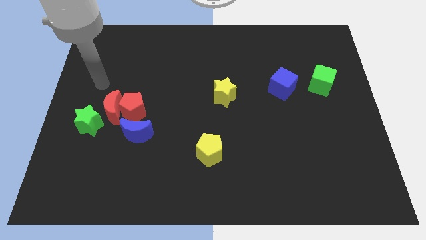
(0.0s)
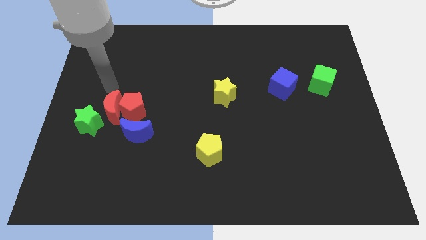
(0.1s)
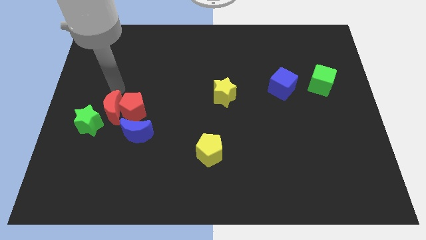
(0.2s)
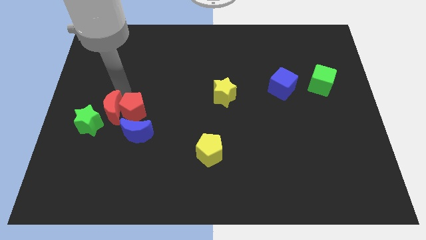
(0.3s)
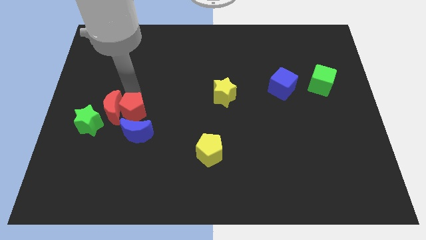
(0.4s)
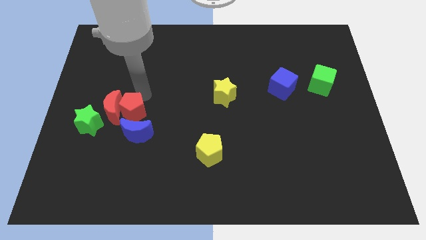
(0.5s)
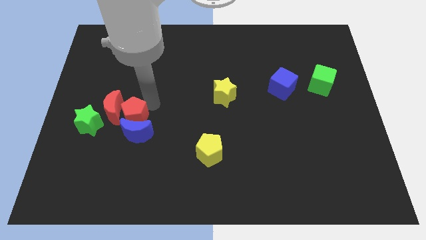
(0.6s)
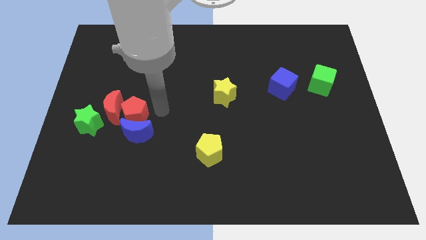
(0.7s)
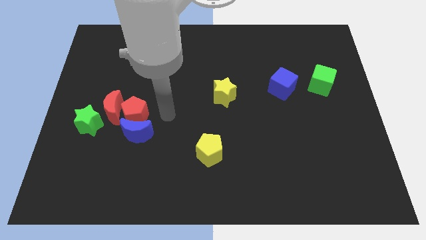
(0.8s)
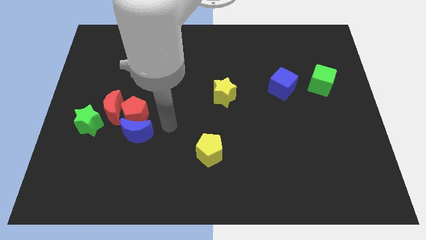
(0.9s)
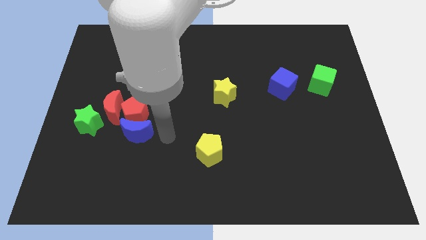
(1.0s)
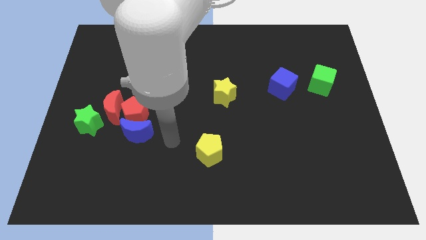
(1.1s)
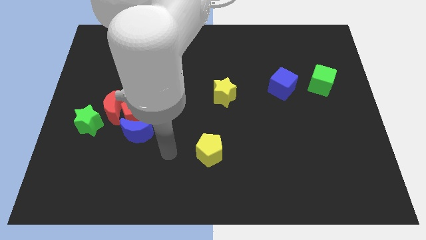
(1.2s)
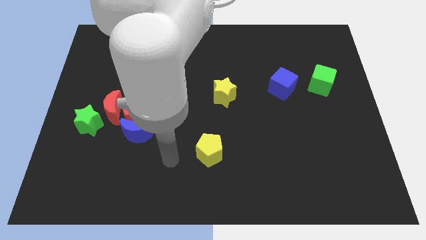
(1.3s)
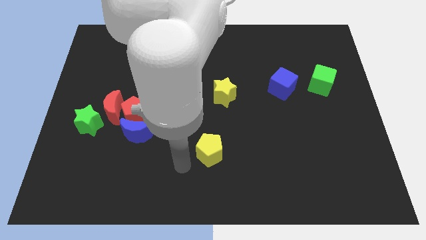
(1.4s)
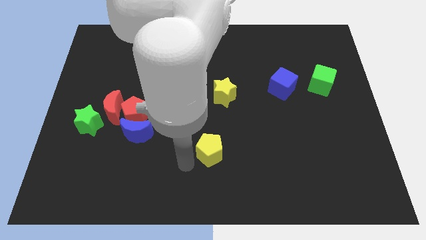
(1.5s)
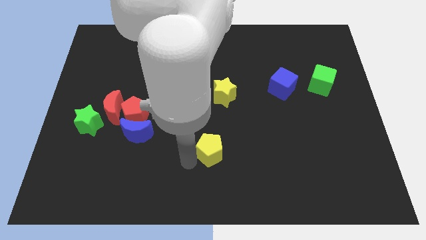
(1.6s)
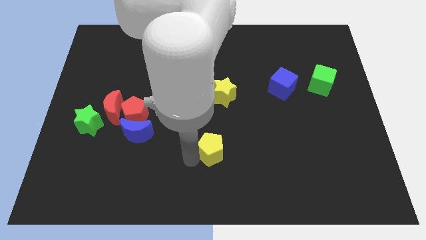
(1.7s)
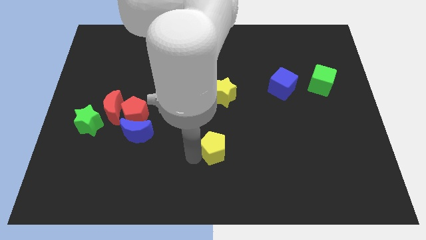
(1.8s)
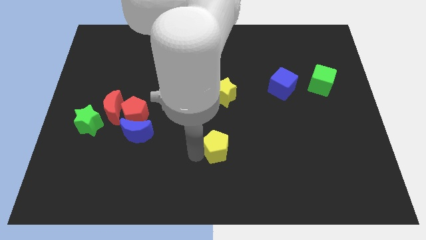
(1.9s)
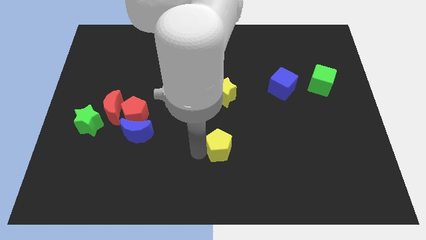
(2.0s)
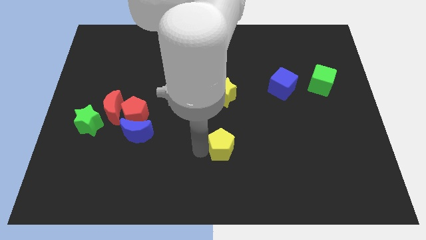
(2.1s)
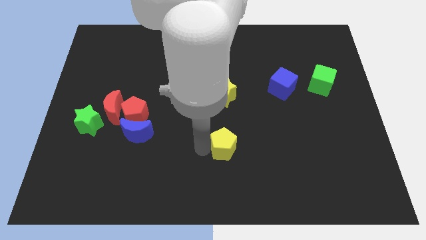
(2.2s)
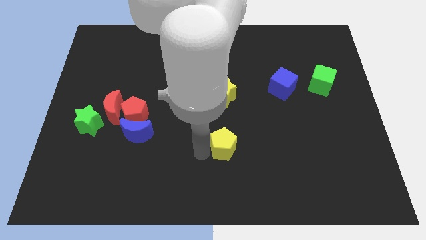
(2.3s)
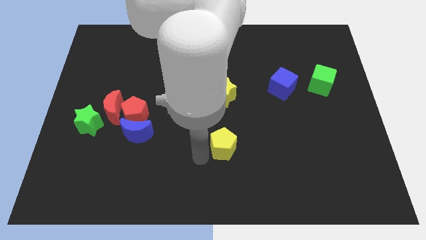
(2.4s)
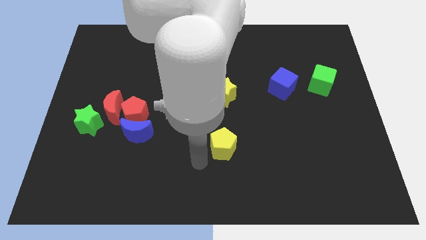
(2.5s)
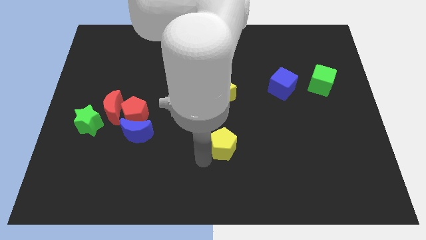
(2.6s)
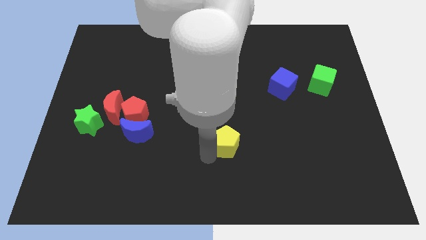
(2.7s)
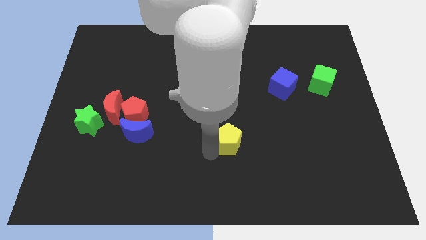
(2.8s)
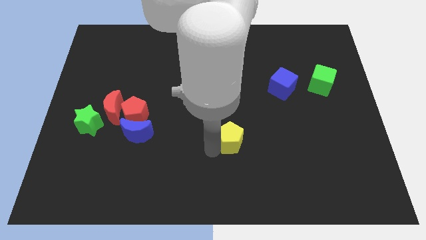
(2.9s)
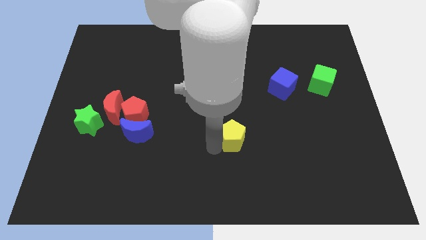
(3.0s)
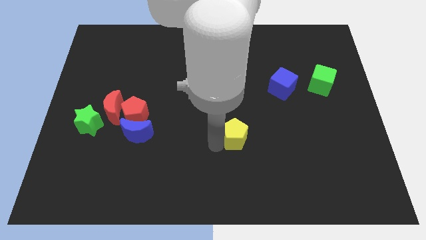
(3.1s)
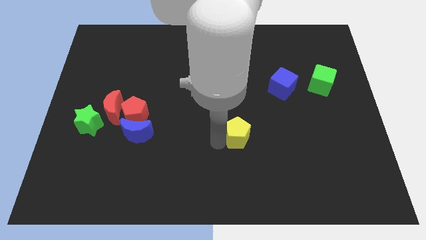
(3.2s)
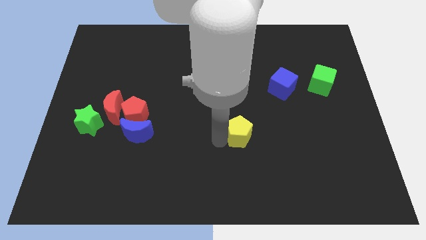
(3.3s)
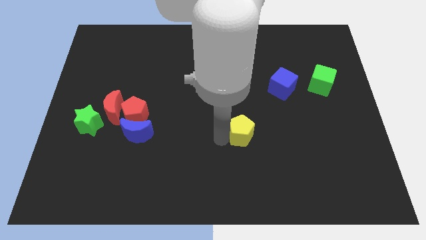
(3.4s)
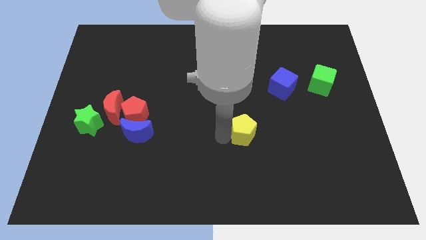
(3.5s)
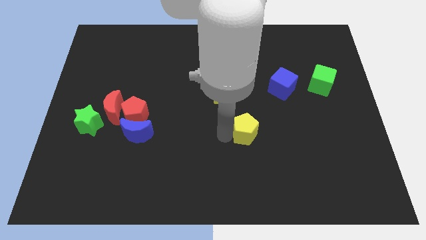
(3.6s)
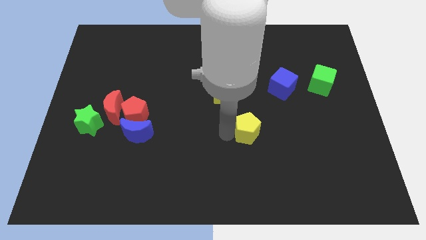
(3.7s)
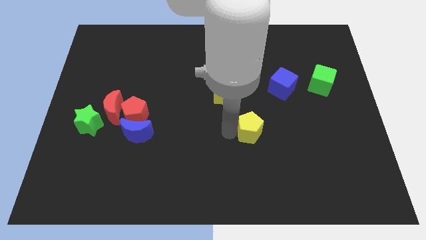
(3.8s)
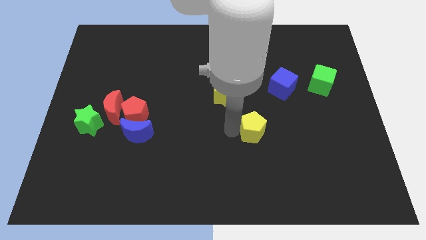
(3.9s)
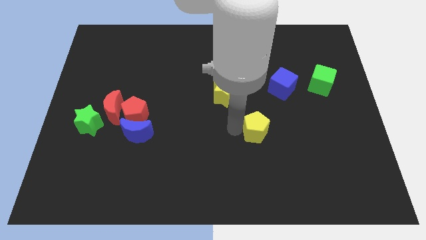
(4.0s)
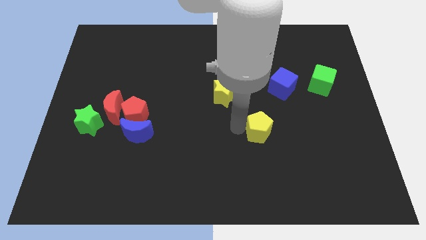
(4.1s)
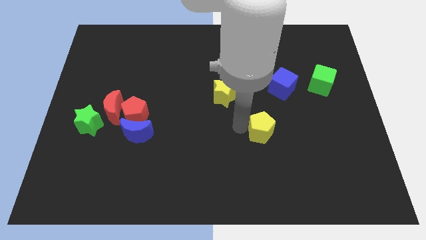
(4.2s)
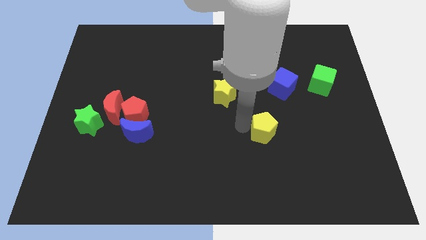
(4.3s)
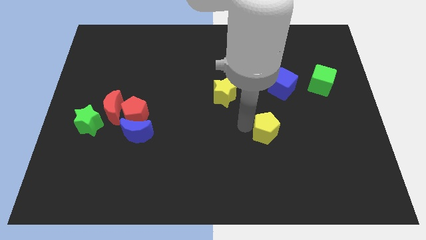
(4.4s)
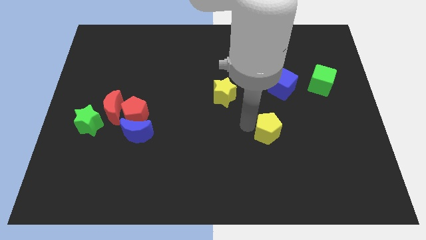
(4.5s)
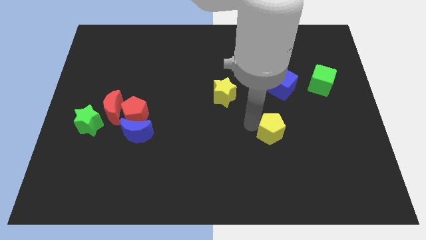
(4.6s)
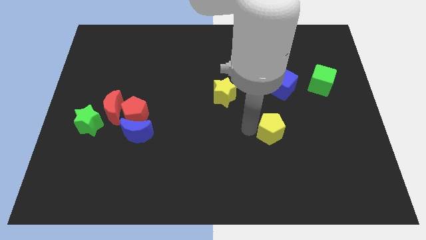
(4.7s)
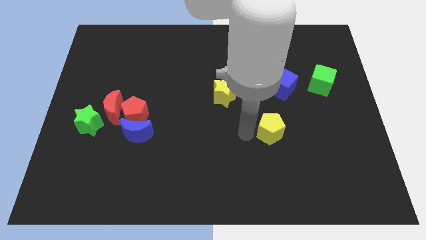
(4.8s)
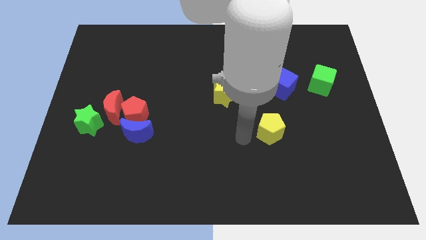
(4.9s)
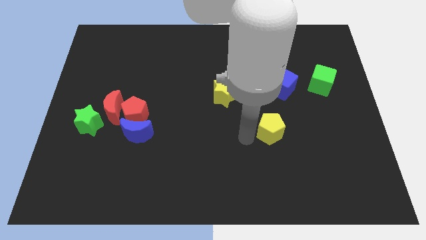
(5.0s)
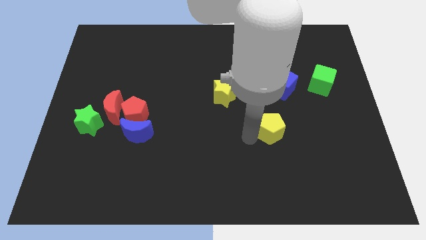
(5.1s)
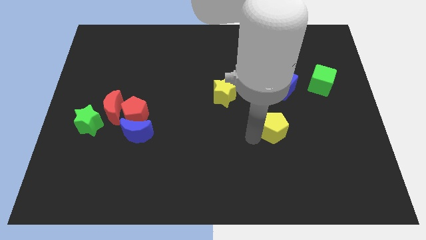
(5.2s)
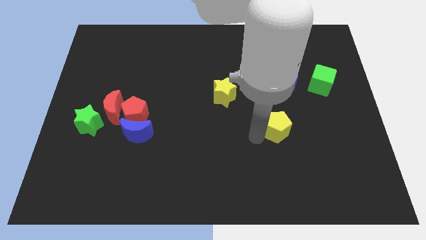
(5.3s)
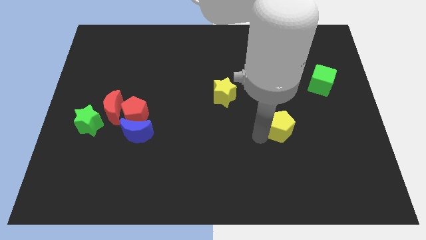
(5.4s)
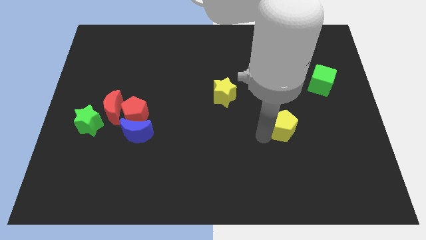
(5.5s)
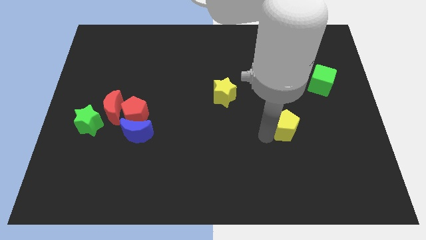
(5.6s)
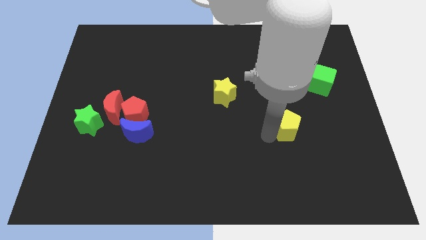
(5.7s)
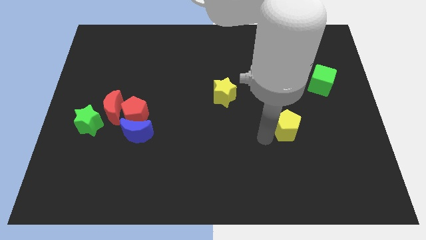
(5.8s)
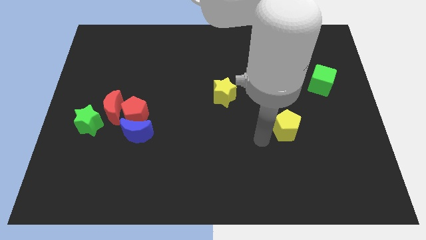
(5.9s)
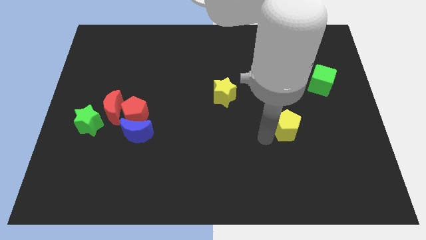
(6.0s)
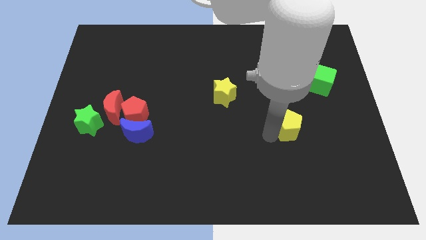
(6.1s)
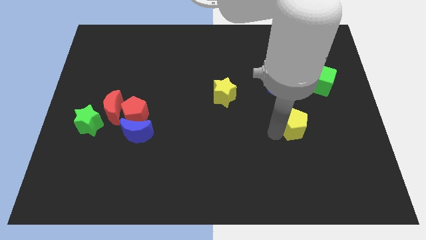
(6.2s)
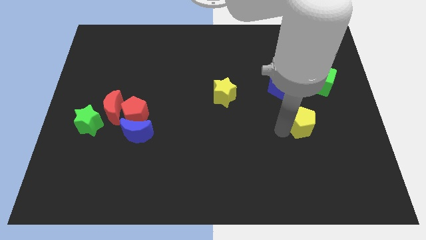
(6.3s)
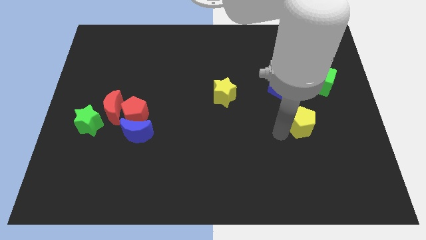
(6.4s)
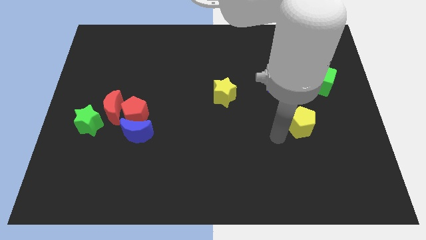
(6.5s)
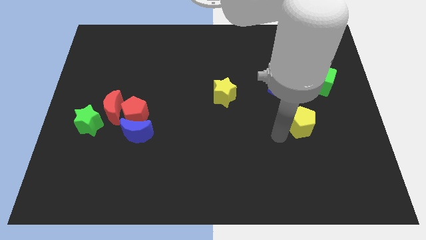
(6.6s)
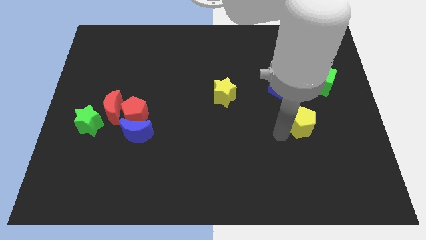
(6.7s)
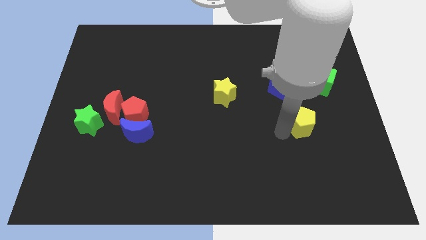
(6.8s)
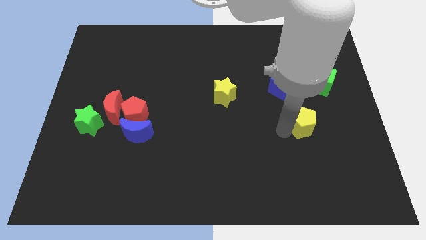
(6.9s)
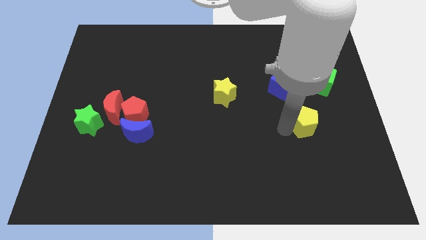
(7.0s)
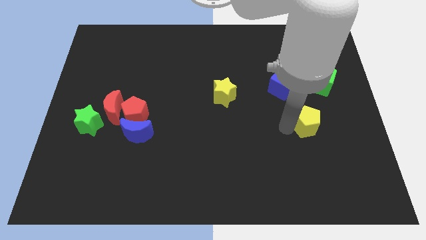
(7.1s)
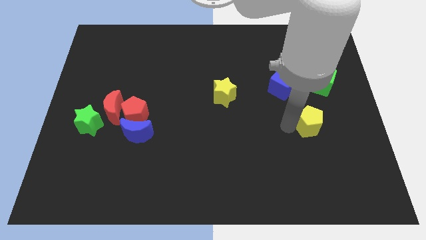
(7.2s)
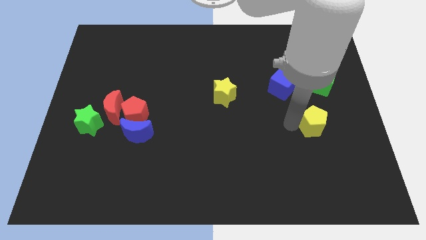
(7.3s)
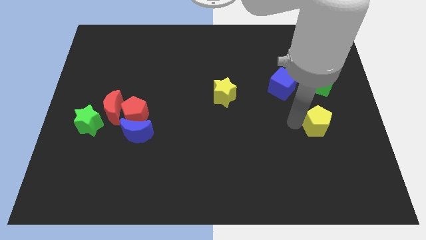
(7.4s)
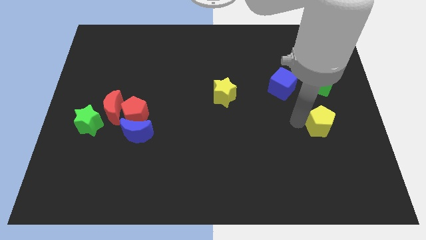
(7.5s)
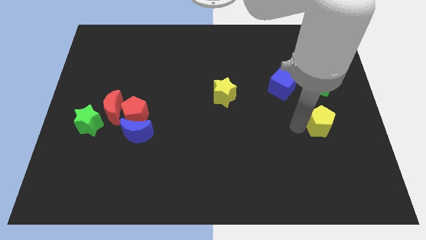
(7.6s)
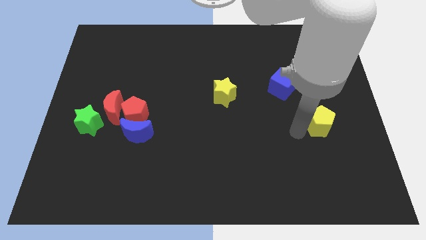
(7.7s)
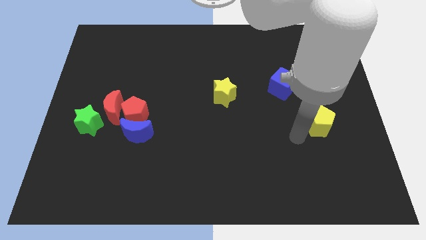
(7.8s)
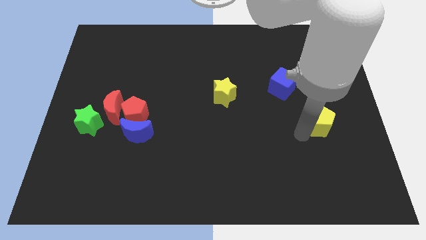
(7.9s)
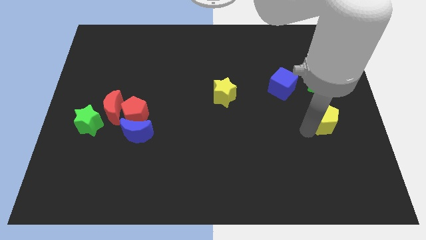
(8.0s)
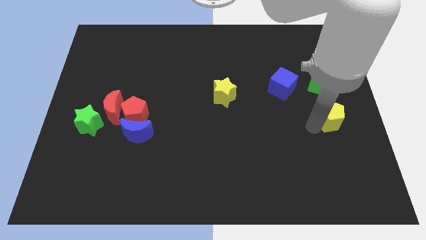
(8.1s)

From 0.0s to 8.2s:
put the yellow pentagon to the right side
